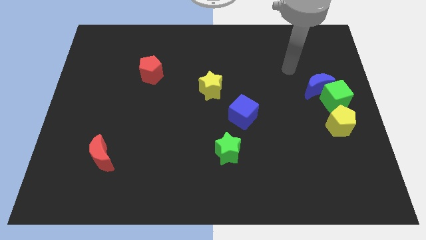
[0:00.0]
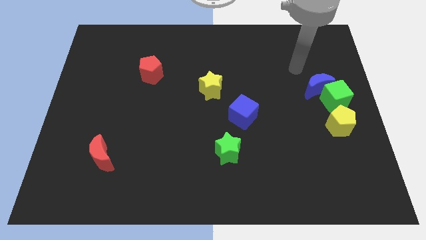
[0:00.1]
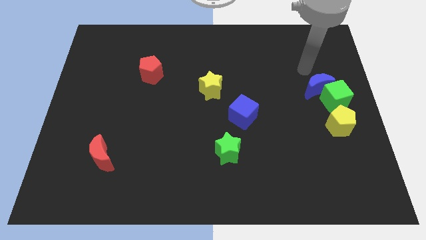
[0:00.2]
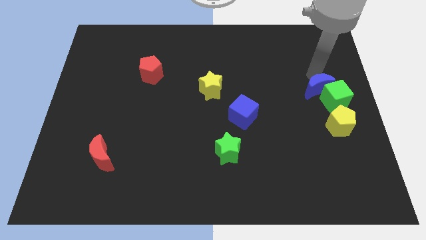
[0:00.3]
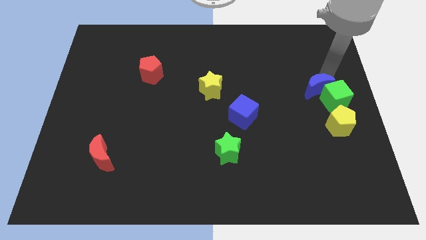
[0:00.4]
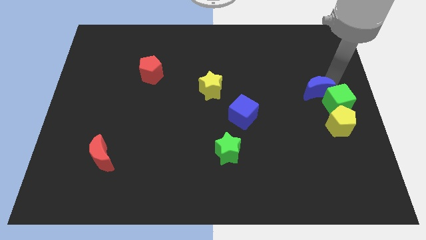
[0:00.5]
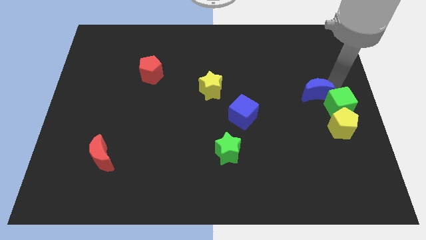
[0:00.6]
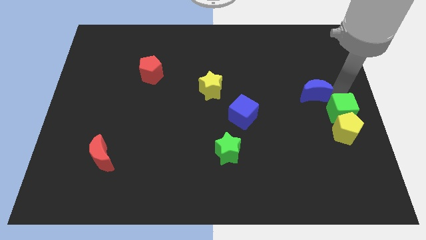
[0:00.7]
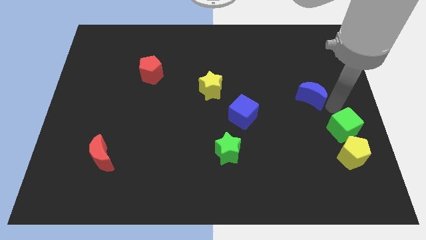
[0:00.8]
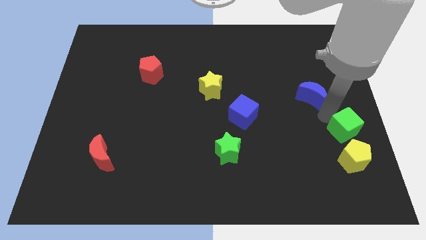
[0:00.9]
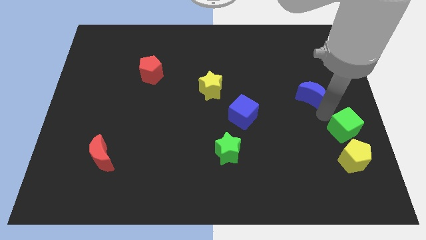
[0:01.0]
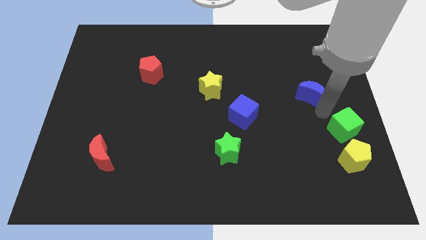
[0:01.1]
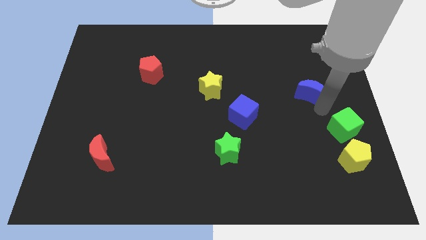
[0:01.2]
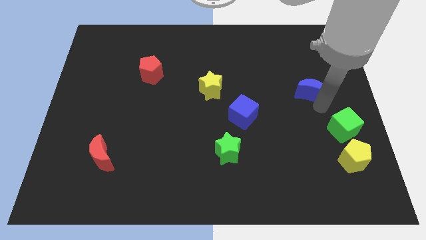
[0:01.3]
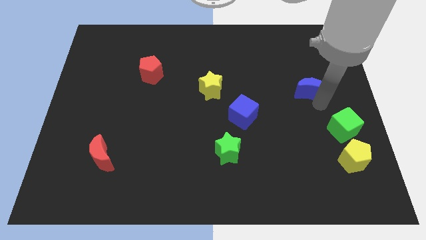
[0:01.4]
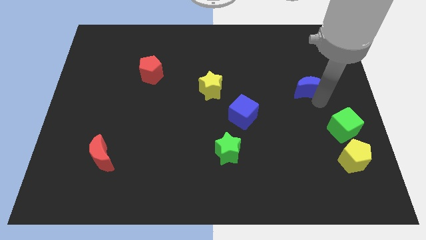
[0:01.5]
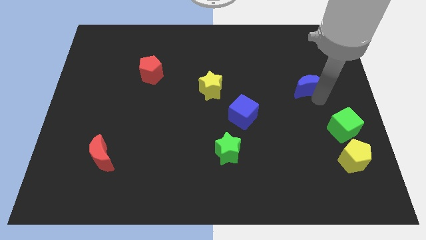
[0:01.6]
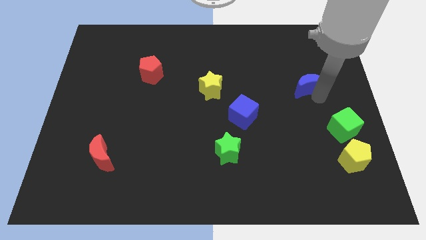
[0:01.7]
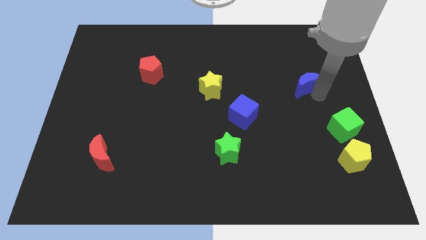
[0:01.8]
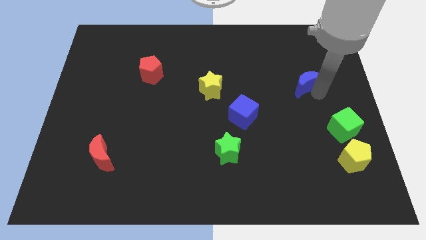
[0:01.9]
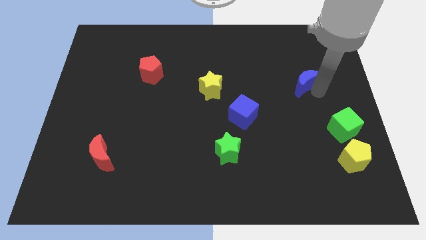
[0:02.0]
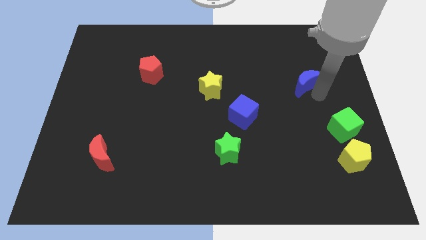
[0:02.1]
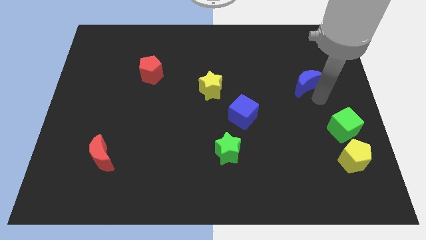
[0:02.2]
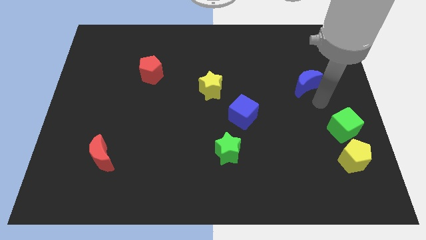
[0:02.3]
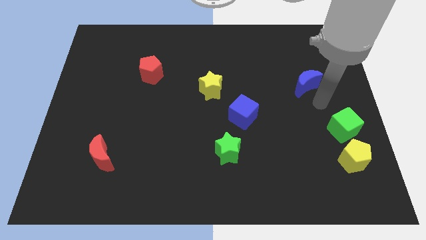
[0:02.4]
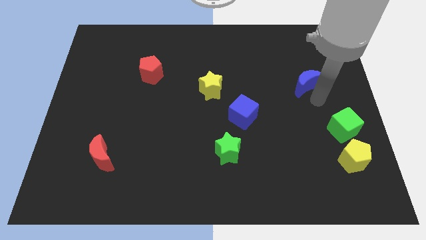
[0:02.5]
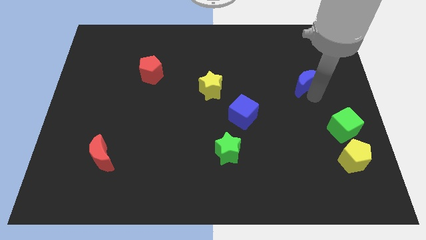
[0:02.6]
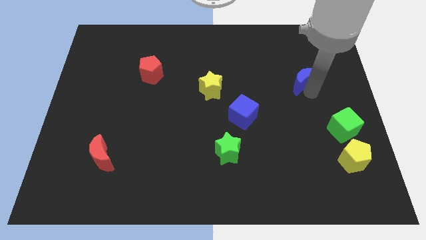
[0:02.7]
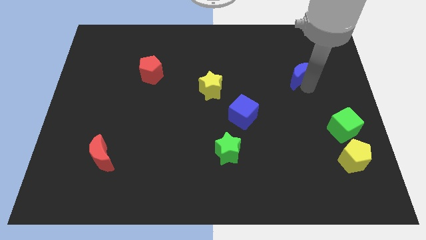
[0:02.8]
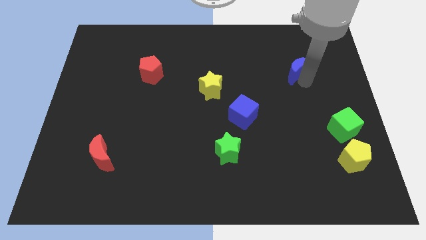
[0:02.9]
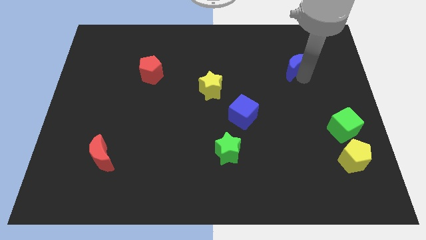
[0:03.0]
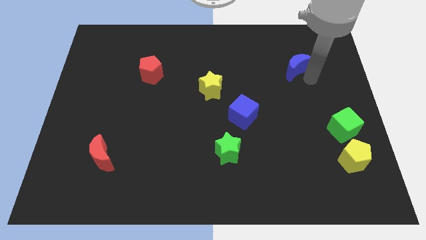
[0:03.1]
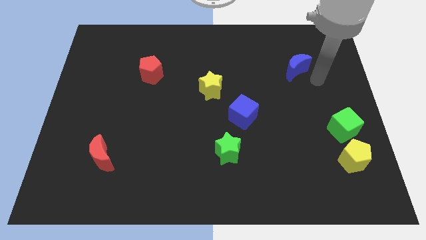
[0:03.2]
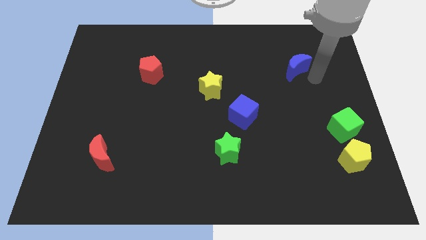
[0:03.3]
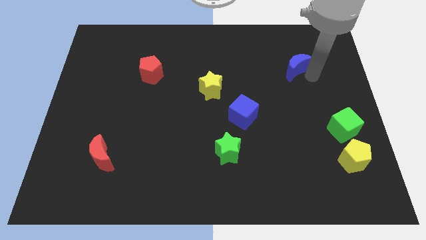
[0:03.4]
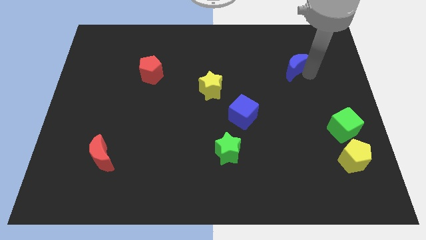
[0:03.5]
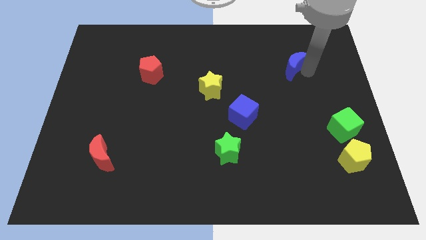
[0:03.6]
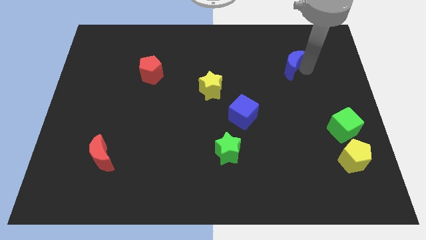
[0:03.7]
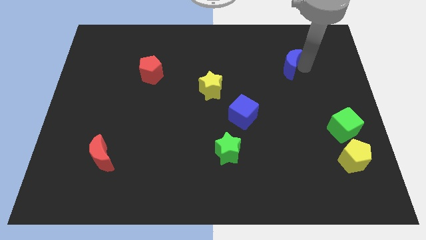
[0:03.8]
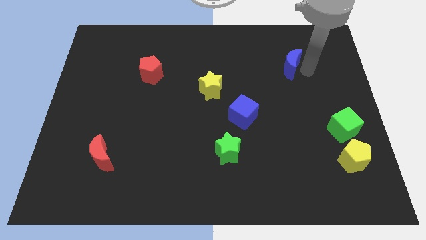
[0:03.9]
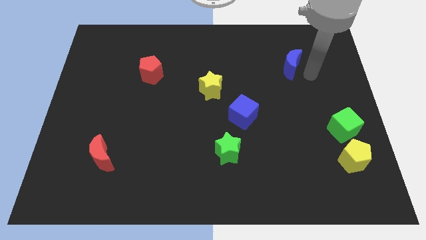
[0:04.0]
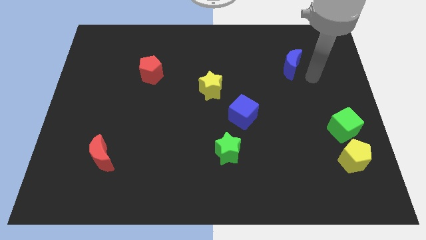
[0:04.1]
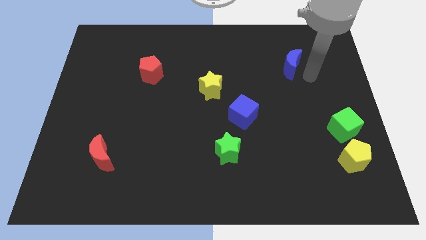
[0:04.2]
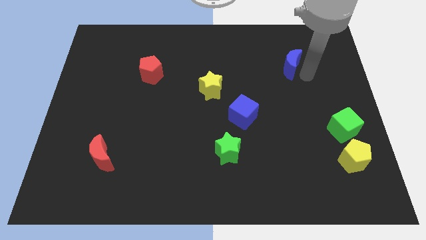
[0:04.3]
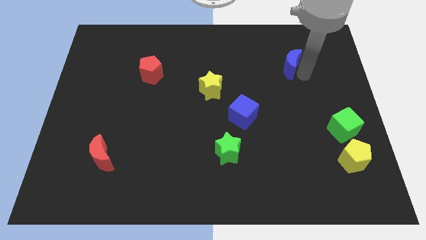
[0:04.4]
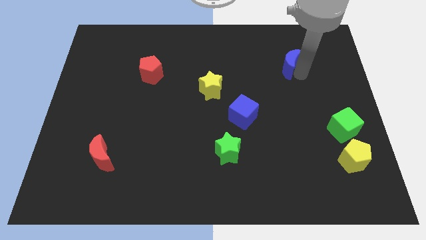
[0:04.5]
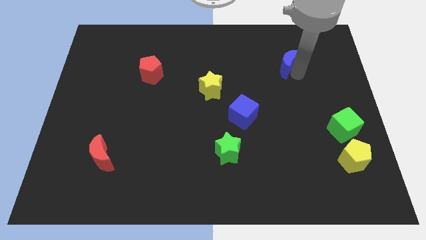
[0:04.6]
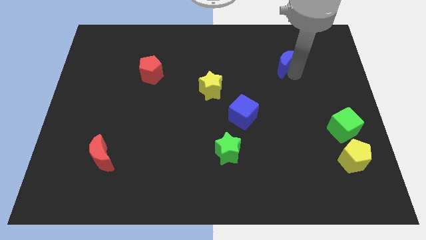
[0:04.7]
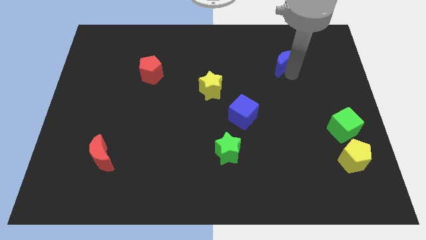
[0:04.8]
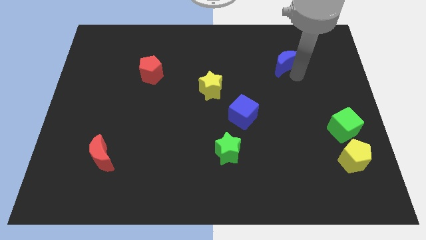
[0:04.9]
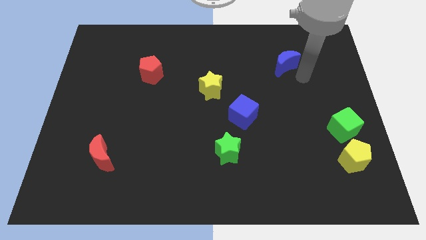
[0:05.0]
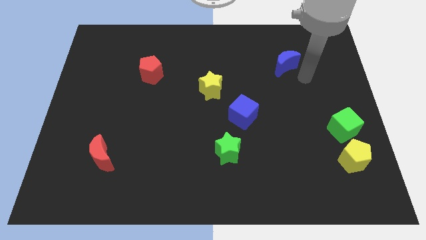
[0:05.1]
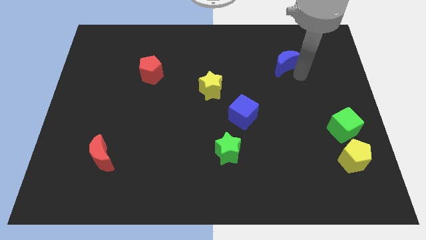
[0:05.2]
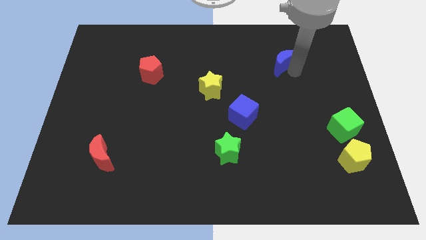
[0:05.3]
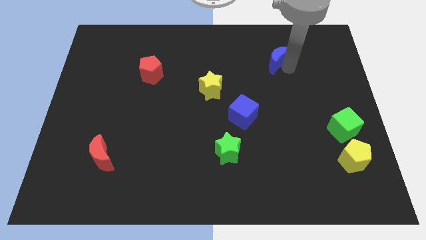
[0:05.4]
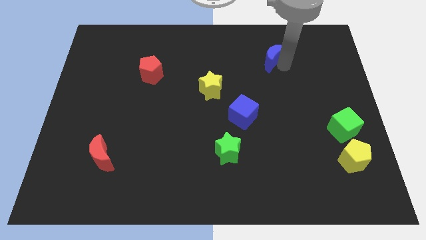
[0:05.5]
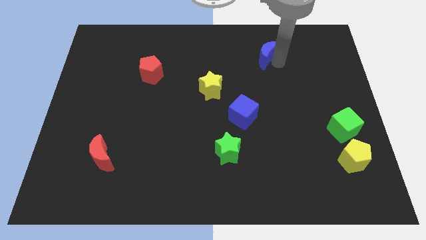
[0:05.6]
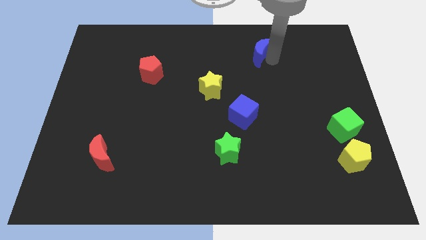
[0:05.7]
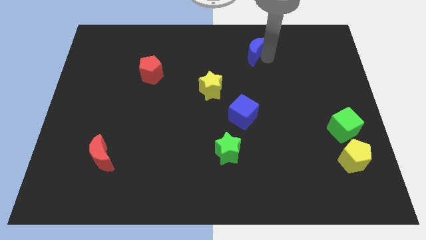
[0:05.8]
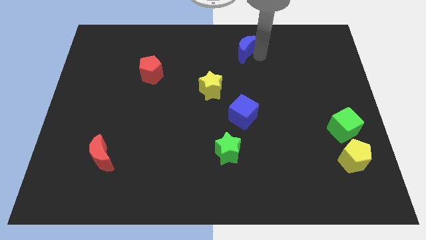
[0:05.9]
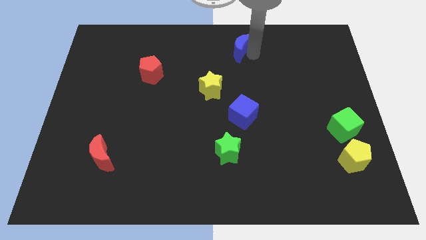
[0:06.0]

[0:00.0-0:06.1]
push the blue moon to the top side
